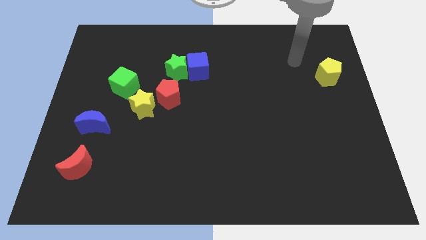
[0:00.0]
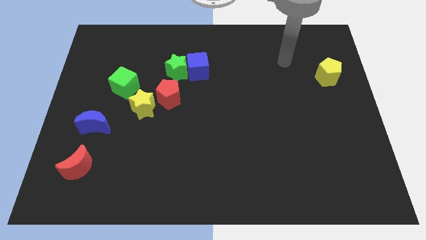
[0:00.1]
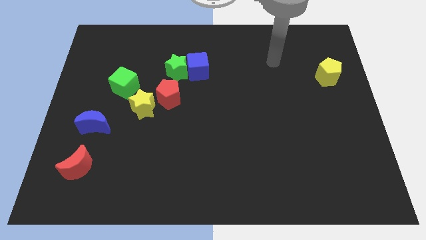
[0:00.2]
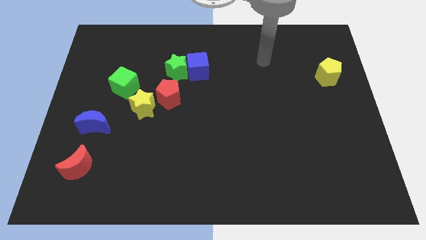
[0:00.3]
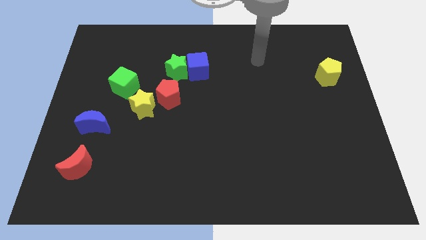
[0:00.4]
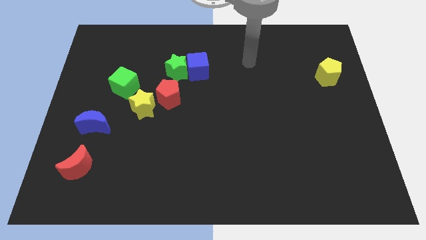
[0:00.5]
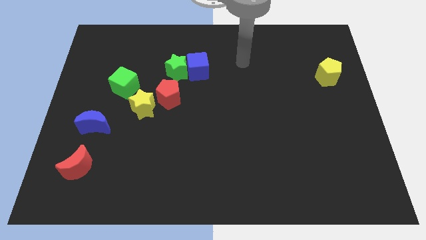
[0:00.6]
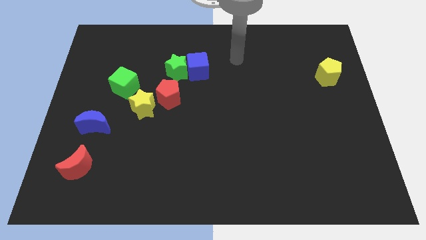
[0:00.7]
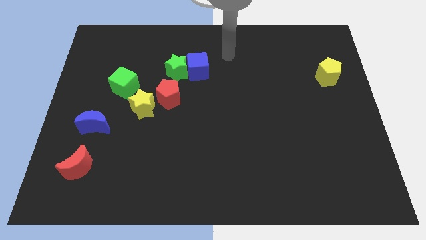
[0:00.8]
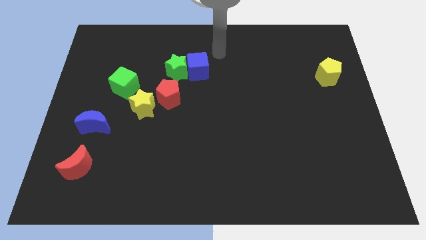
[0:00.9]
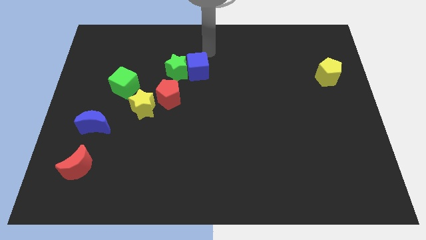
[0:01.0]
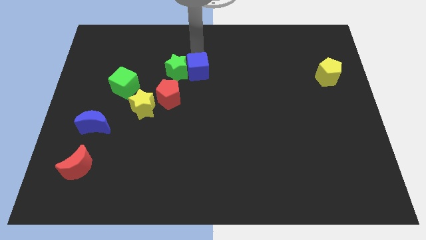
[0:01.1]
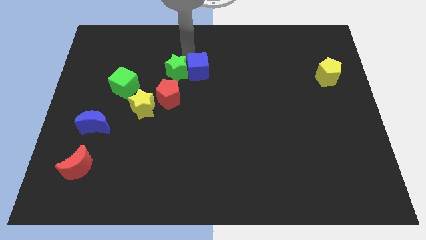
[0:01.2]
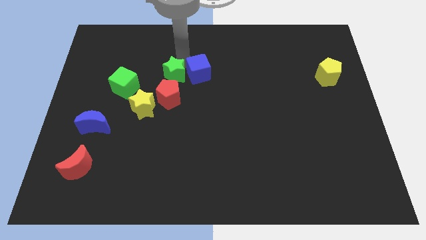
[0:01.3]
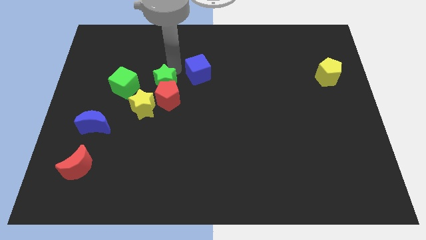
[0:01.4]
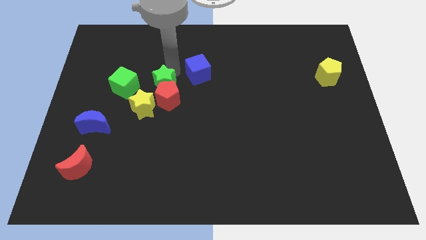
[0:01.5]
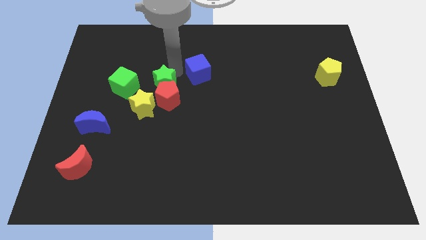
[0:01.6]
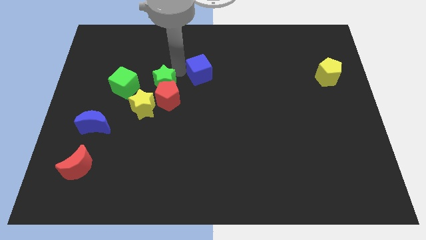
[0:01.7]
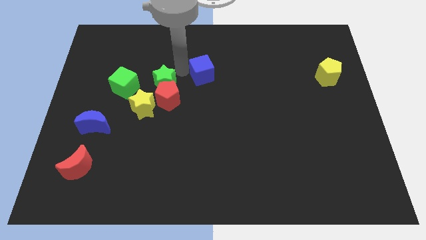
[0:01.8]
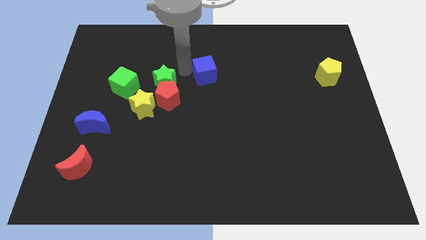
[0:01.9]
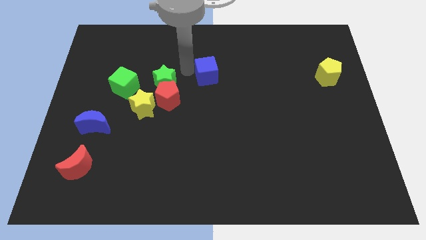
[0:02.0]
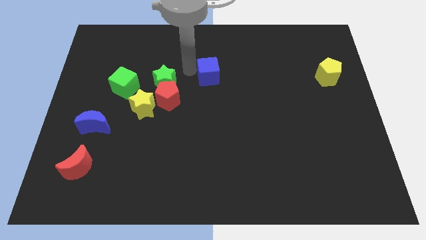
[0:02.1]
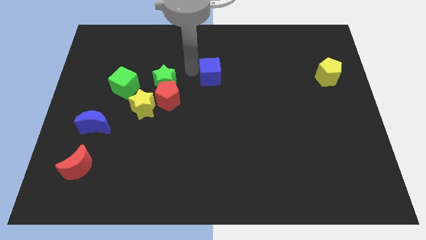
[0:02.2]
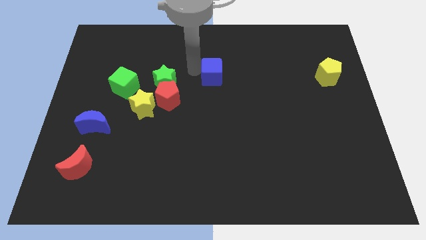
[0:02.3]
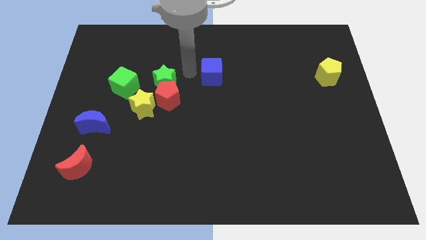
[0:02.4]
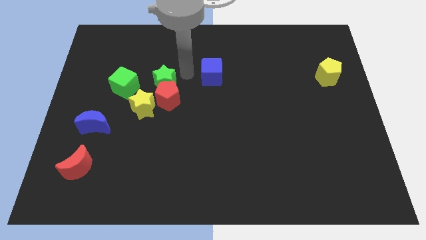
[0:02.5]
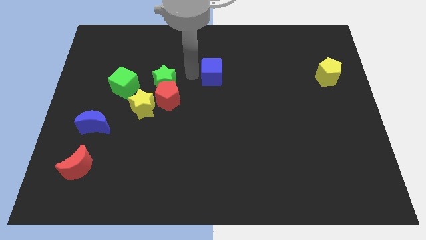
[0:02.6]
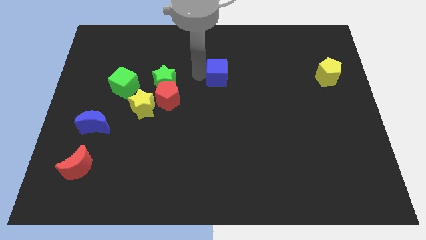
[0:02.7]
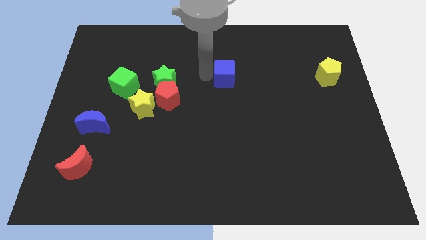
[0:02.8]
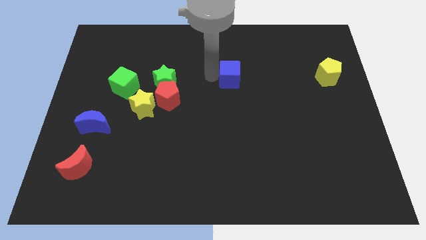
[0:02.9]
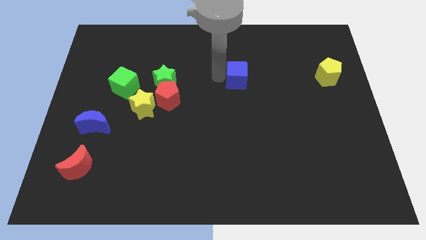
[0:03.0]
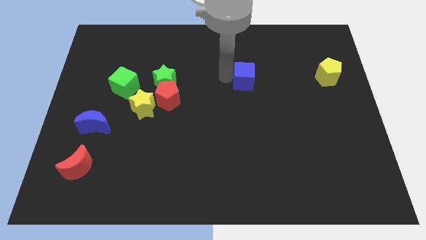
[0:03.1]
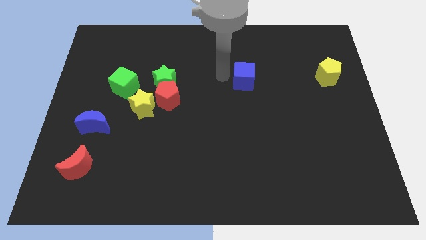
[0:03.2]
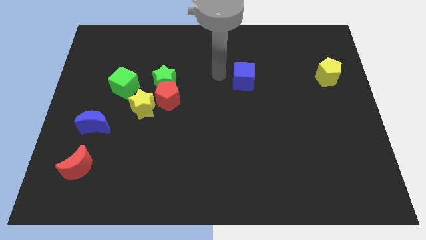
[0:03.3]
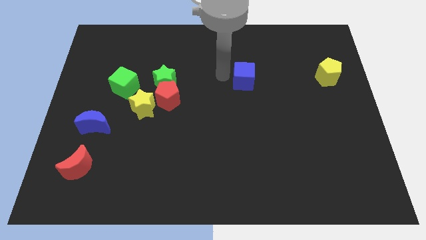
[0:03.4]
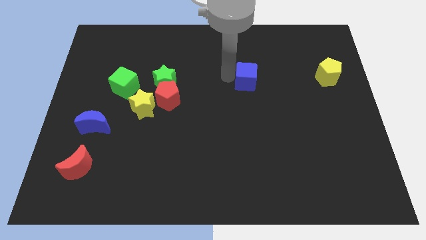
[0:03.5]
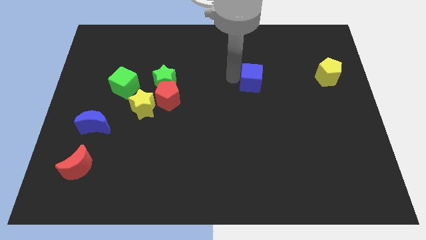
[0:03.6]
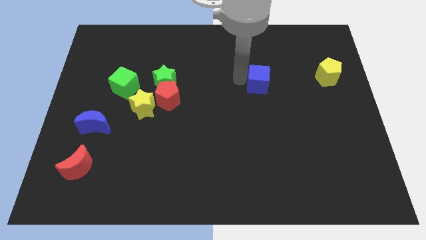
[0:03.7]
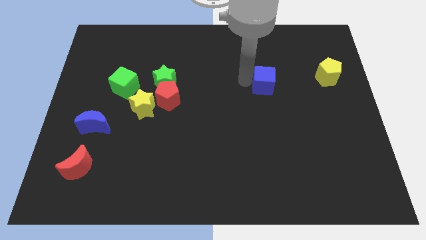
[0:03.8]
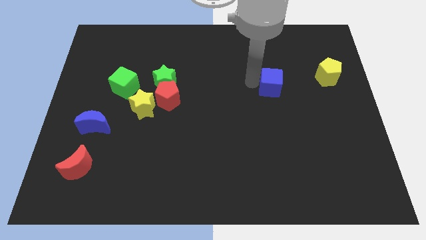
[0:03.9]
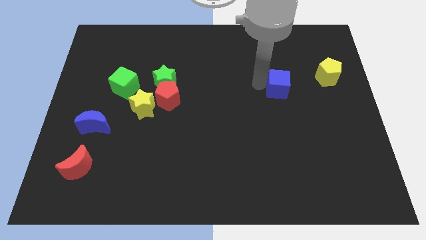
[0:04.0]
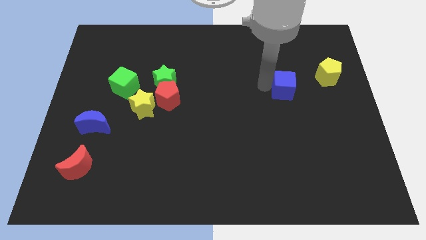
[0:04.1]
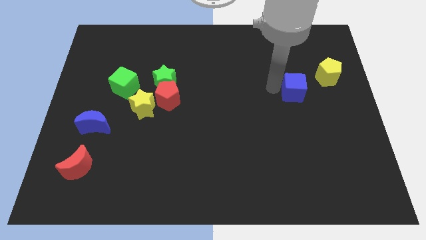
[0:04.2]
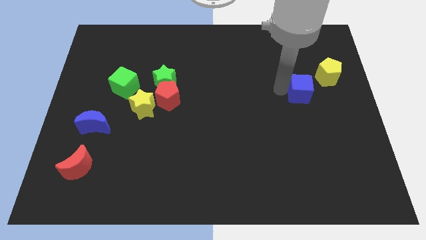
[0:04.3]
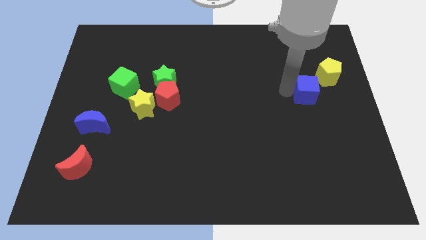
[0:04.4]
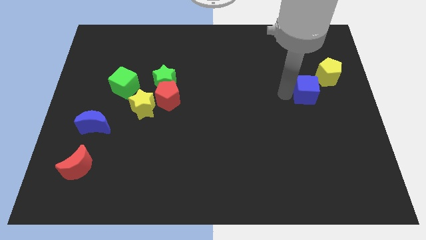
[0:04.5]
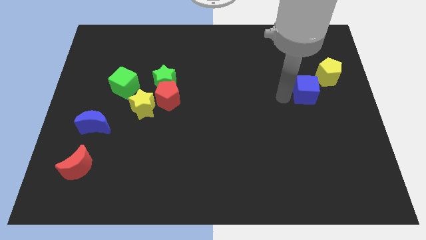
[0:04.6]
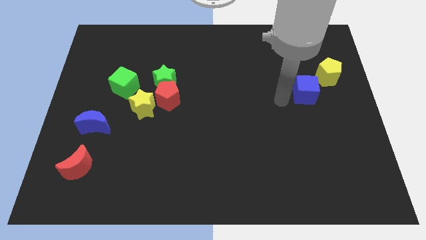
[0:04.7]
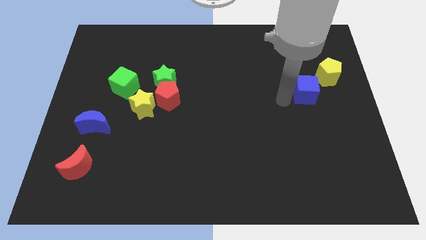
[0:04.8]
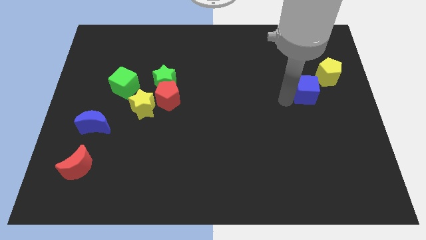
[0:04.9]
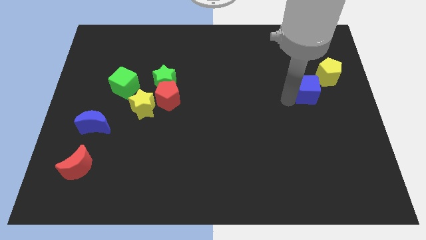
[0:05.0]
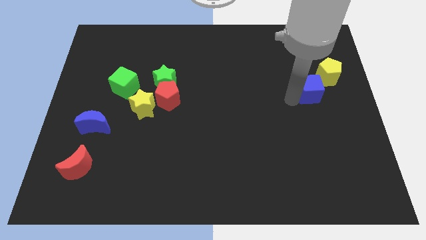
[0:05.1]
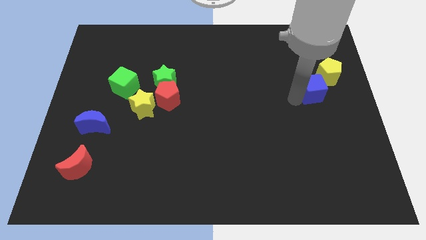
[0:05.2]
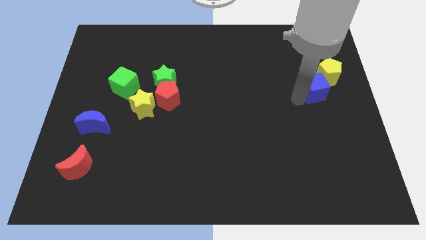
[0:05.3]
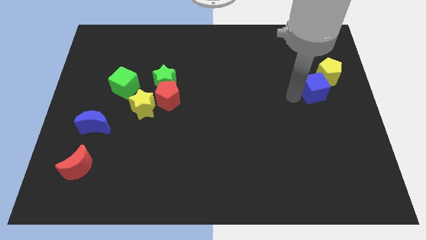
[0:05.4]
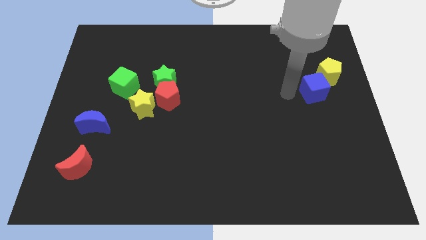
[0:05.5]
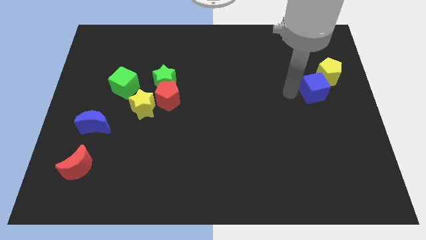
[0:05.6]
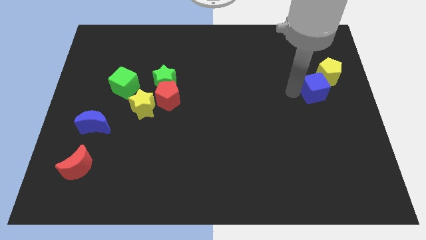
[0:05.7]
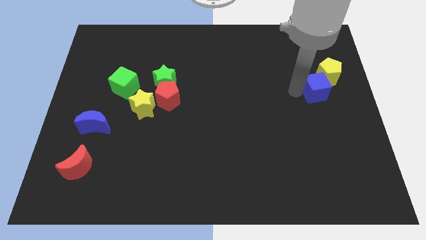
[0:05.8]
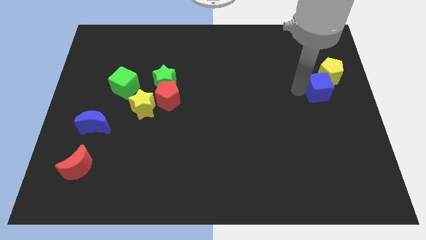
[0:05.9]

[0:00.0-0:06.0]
push the blue cube to the right side of the board

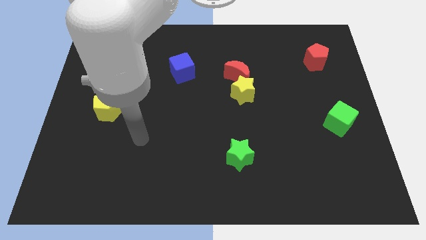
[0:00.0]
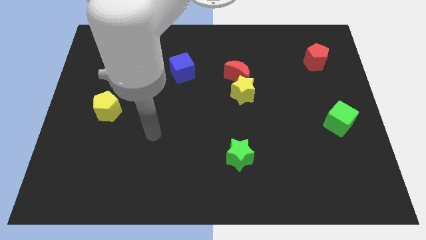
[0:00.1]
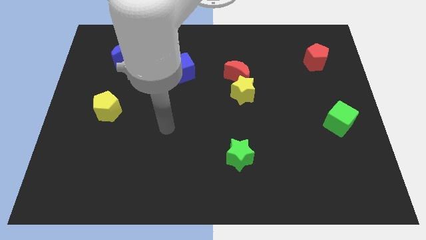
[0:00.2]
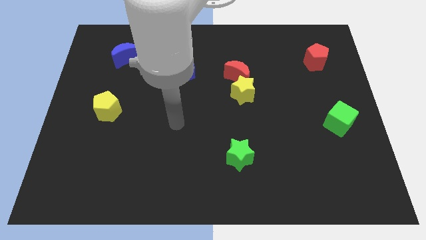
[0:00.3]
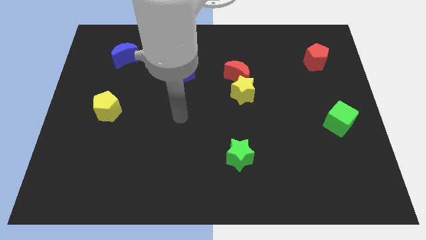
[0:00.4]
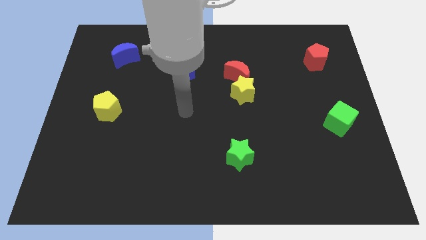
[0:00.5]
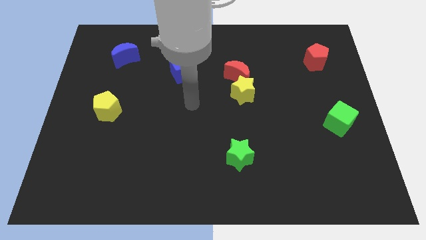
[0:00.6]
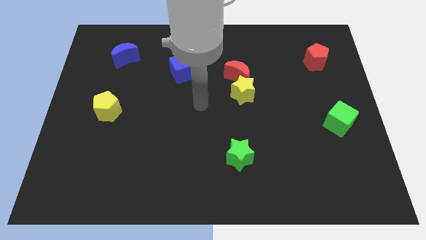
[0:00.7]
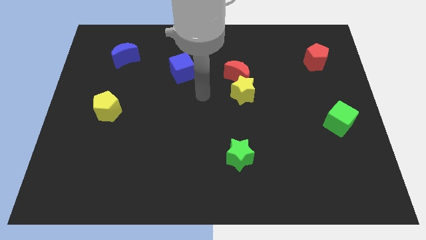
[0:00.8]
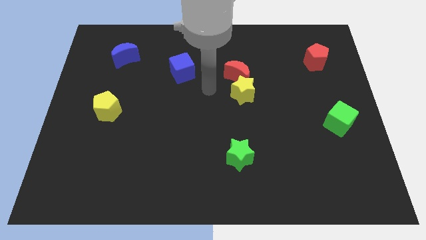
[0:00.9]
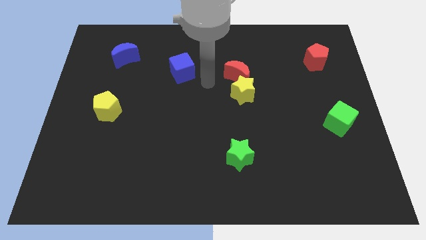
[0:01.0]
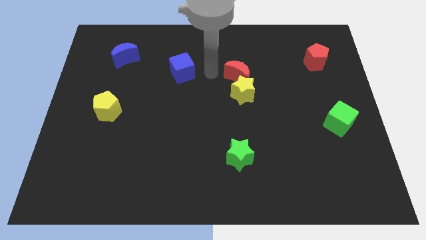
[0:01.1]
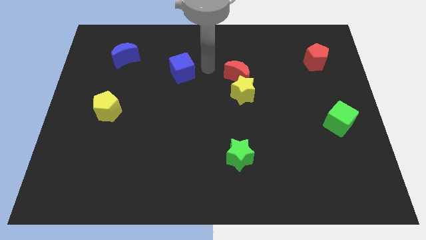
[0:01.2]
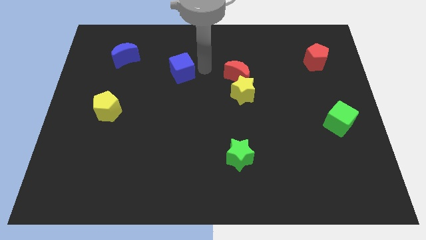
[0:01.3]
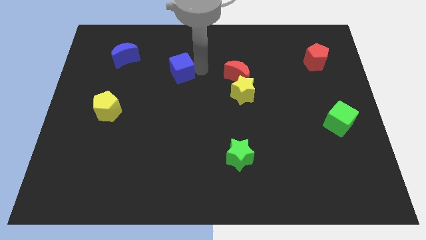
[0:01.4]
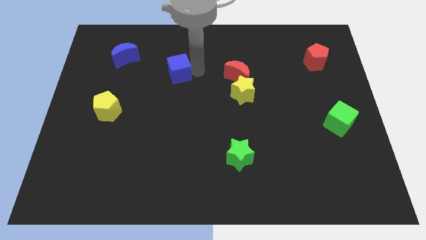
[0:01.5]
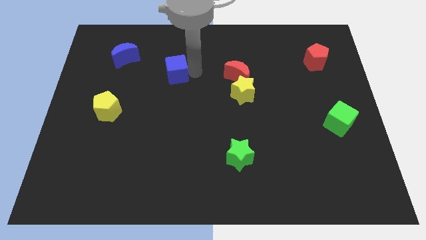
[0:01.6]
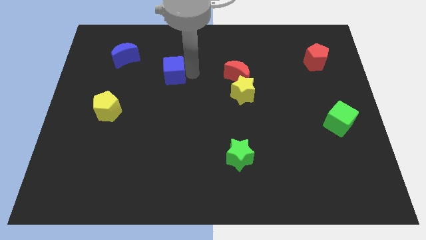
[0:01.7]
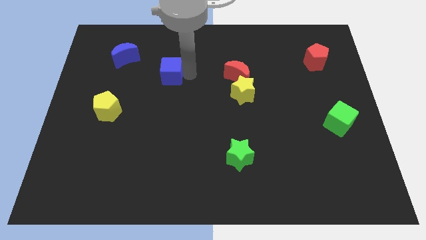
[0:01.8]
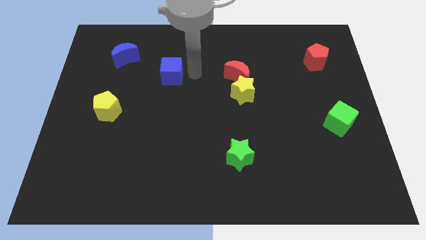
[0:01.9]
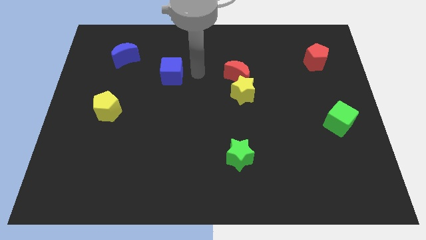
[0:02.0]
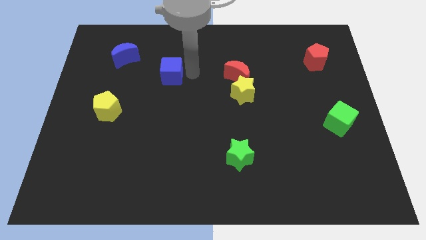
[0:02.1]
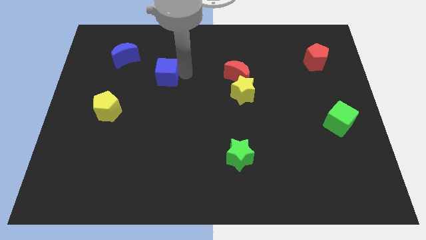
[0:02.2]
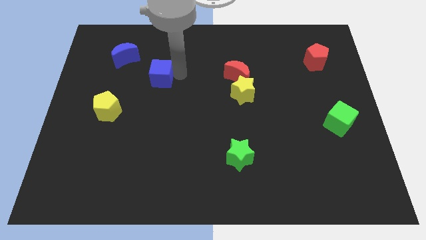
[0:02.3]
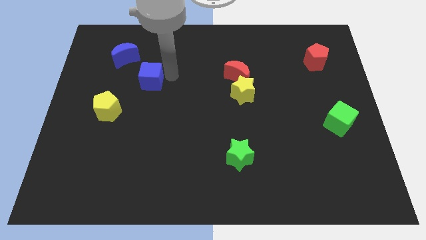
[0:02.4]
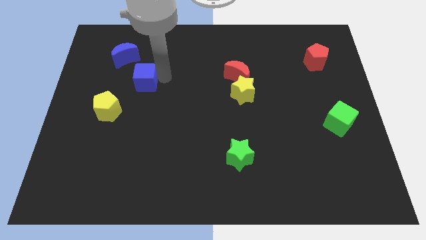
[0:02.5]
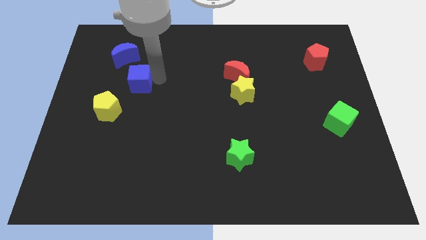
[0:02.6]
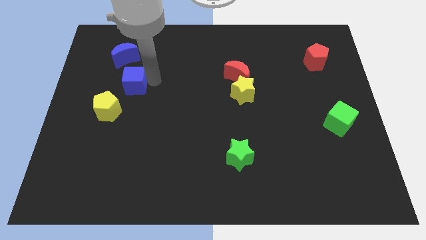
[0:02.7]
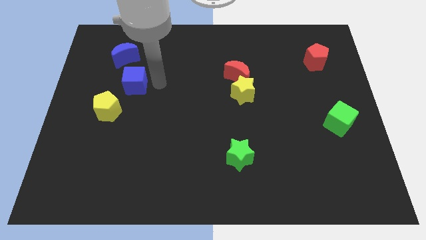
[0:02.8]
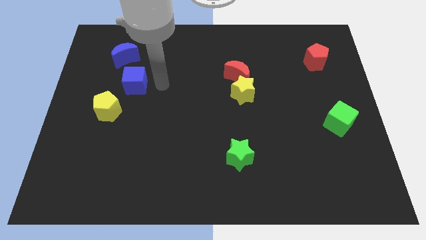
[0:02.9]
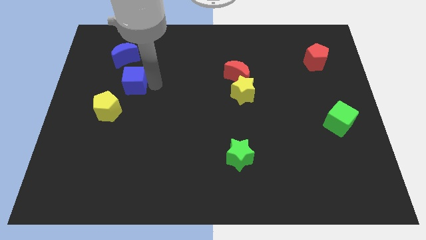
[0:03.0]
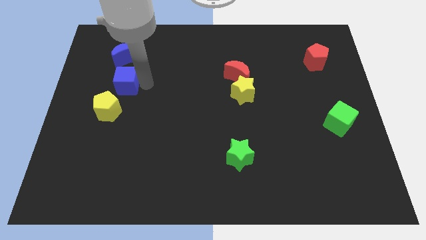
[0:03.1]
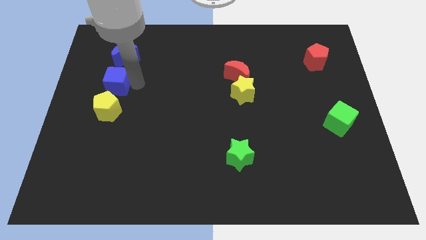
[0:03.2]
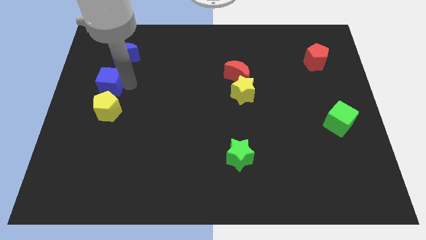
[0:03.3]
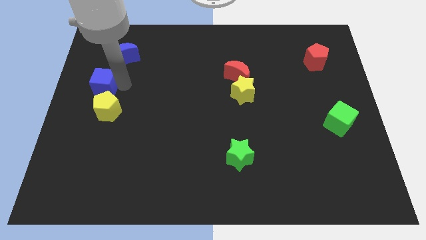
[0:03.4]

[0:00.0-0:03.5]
slide the blue cube to the left side
